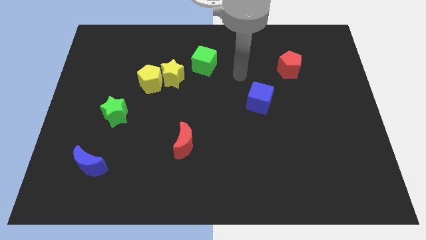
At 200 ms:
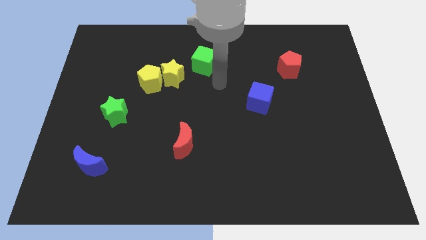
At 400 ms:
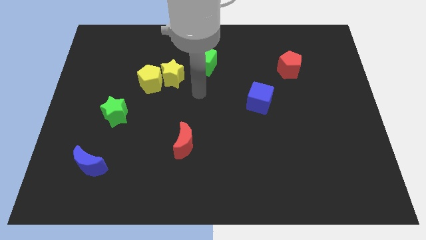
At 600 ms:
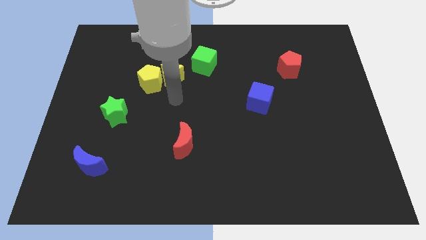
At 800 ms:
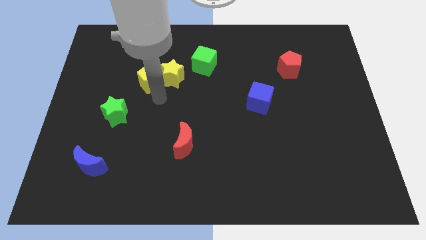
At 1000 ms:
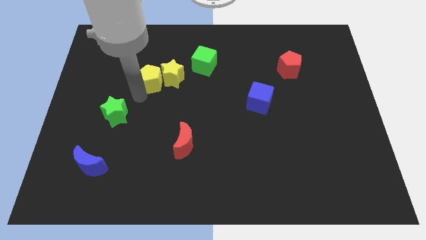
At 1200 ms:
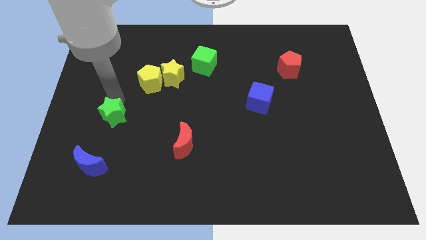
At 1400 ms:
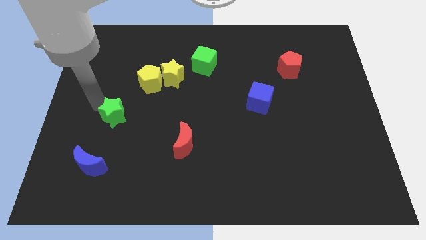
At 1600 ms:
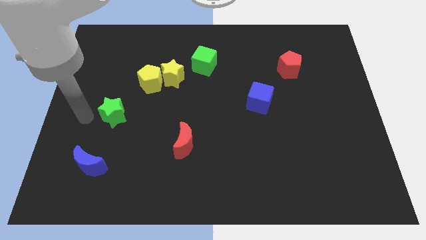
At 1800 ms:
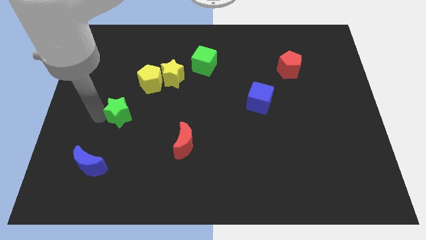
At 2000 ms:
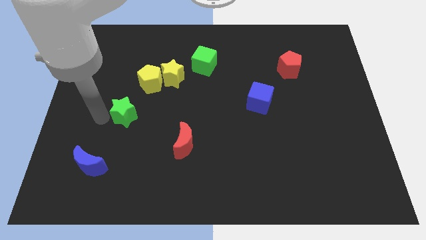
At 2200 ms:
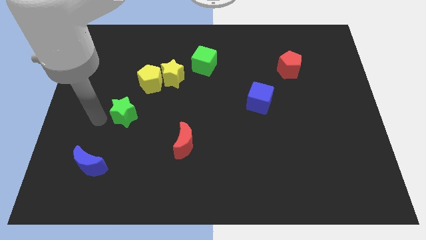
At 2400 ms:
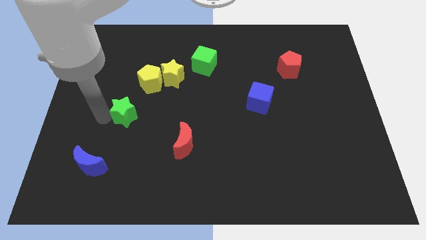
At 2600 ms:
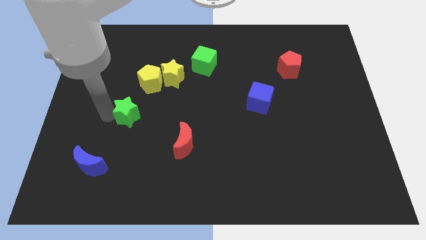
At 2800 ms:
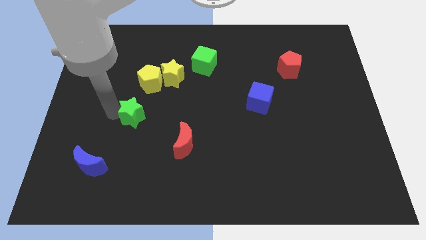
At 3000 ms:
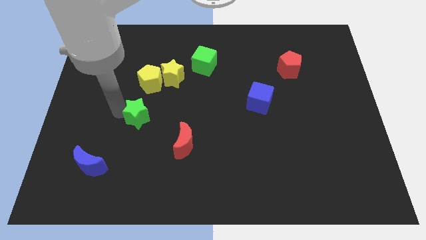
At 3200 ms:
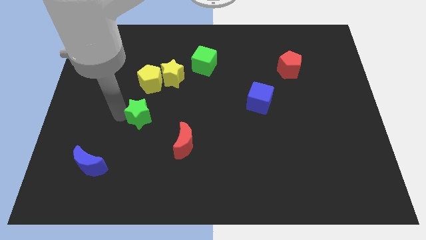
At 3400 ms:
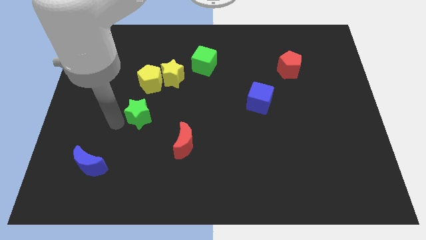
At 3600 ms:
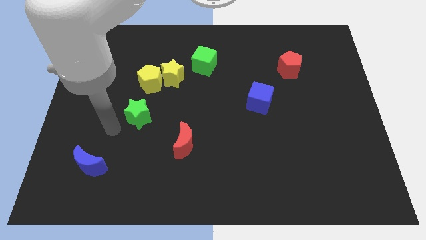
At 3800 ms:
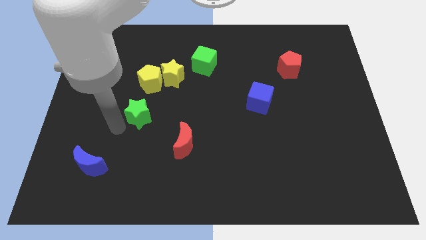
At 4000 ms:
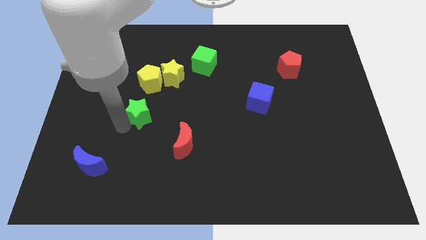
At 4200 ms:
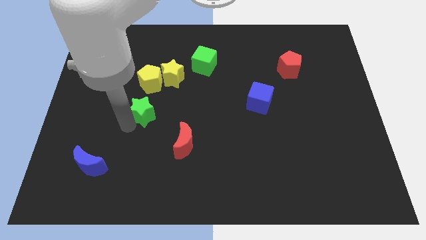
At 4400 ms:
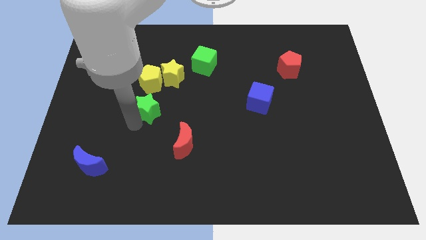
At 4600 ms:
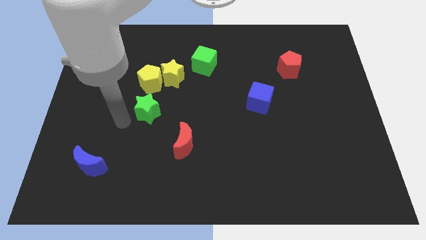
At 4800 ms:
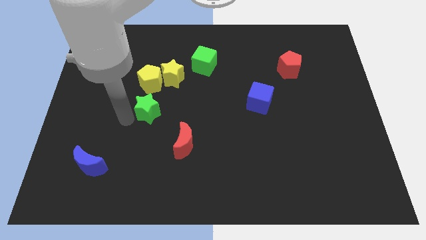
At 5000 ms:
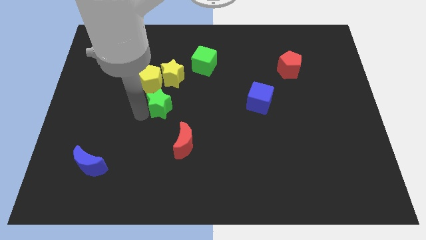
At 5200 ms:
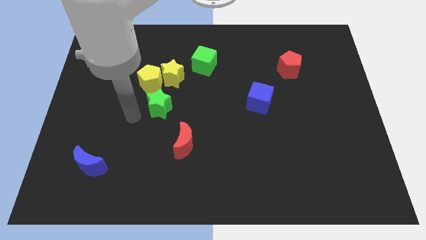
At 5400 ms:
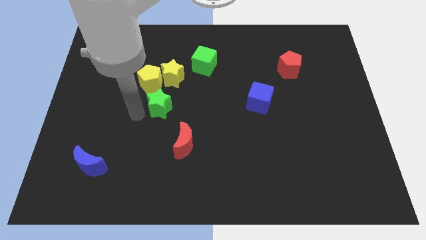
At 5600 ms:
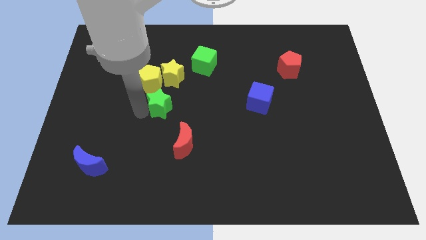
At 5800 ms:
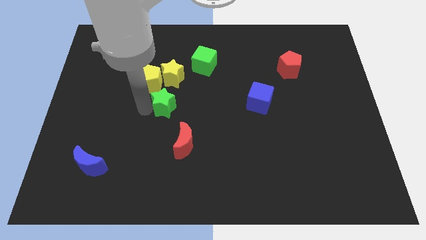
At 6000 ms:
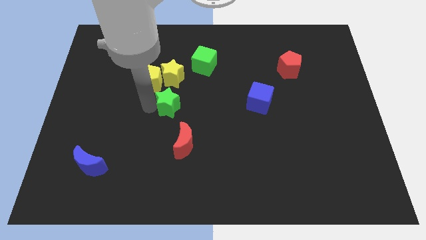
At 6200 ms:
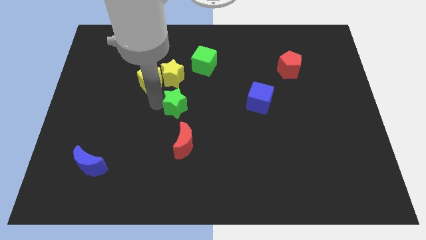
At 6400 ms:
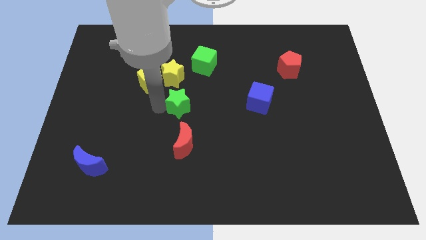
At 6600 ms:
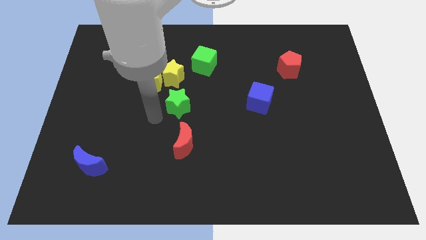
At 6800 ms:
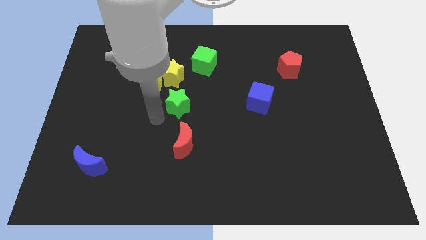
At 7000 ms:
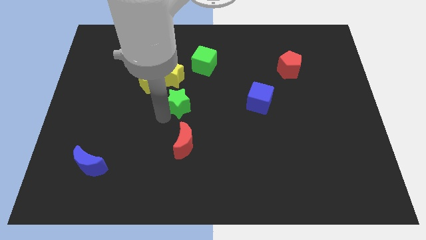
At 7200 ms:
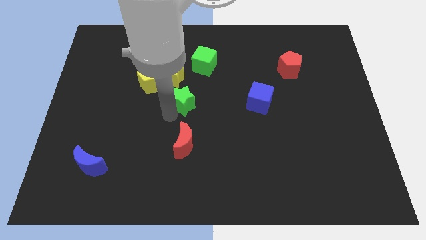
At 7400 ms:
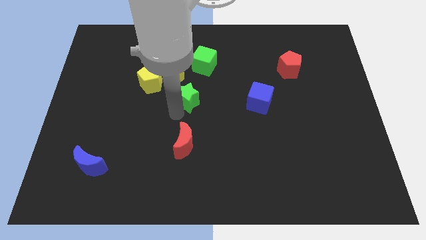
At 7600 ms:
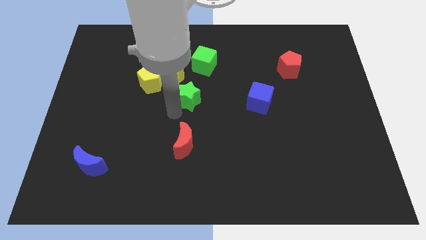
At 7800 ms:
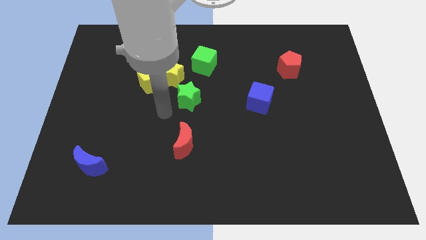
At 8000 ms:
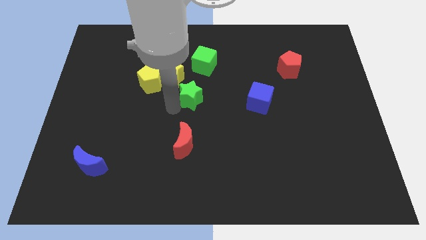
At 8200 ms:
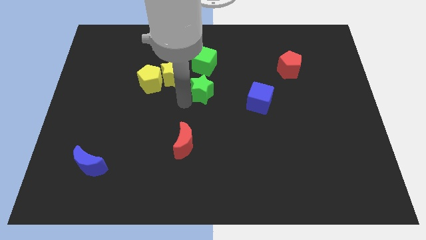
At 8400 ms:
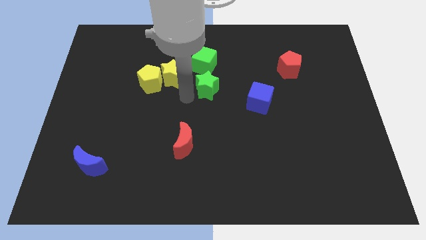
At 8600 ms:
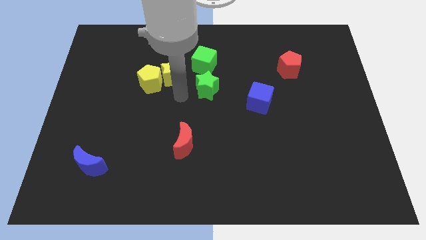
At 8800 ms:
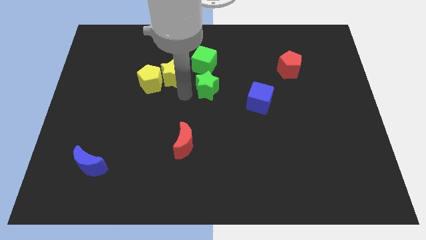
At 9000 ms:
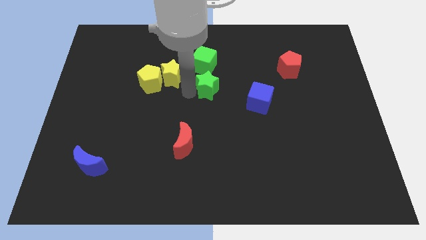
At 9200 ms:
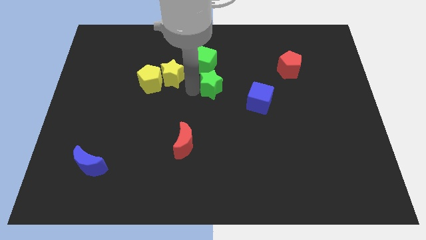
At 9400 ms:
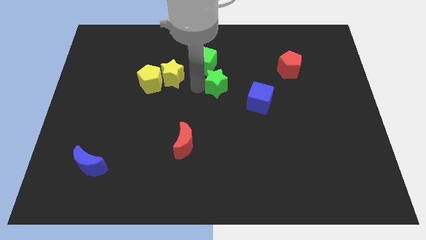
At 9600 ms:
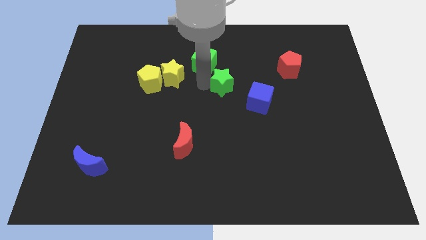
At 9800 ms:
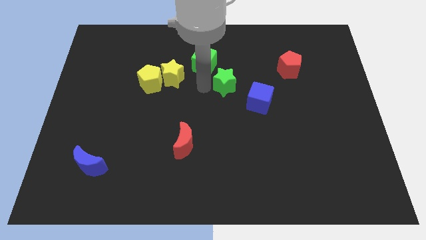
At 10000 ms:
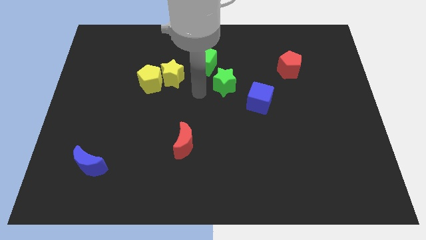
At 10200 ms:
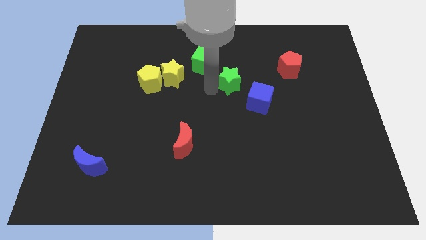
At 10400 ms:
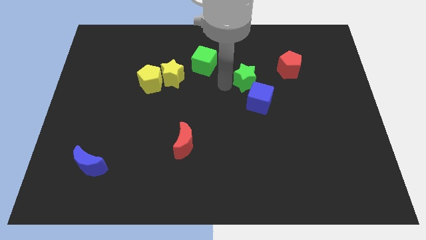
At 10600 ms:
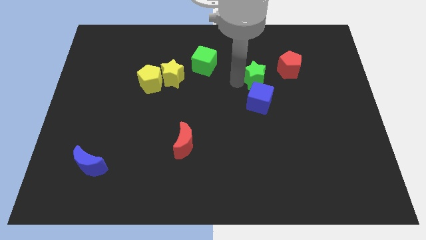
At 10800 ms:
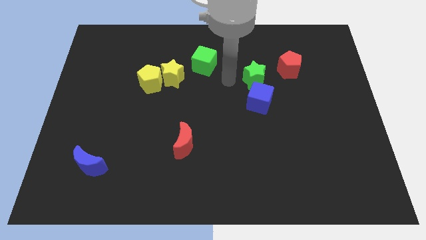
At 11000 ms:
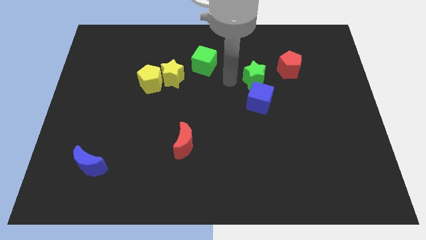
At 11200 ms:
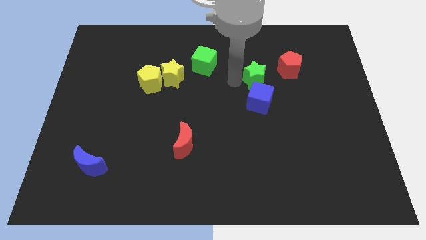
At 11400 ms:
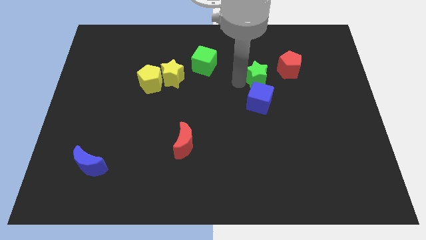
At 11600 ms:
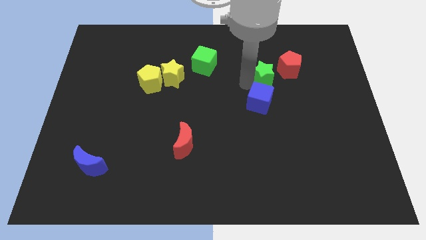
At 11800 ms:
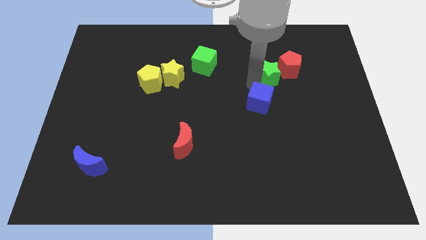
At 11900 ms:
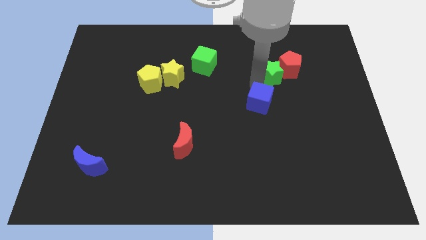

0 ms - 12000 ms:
put the green star close to the red pentagon

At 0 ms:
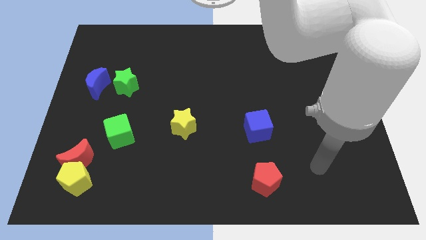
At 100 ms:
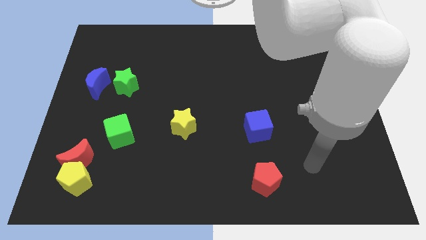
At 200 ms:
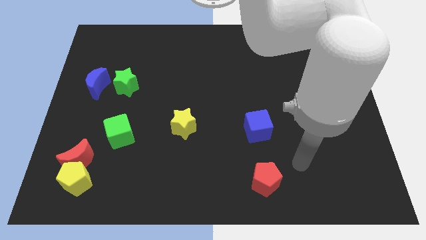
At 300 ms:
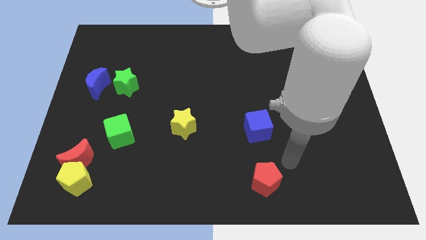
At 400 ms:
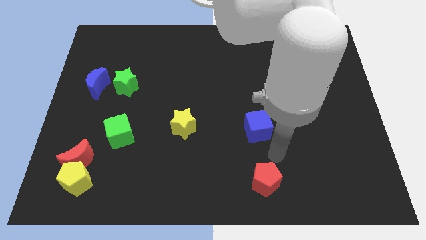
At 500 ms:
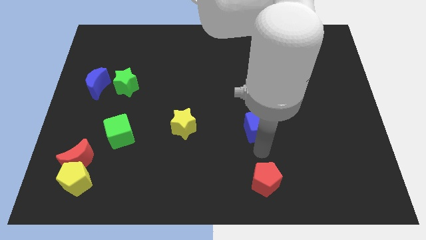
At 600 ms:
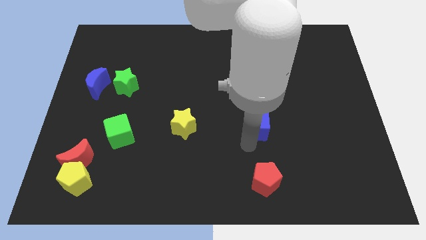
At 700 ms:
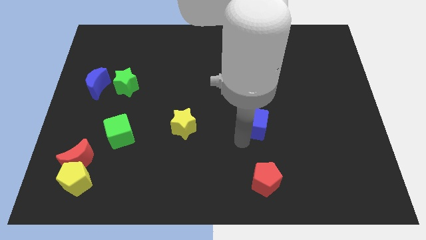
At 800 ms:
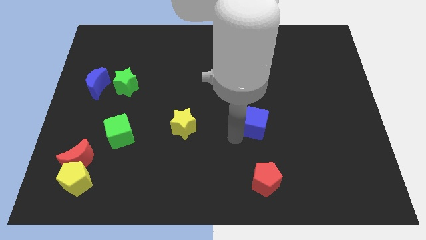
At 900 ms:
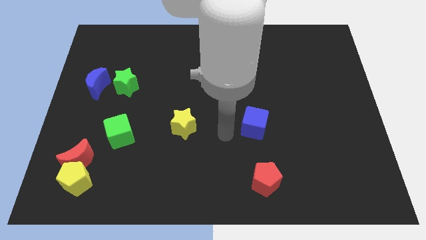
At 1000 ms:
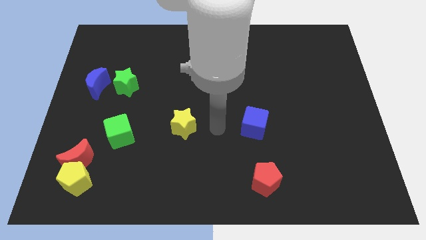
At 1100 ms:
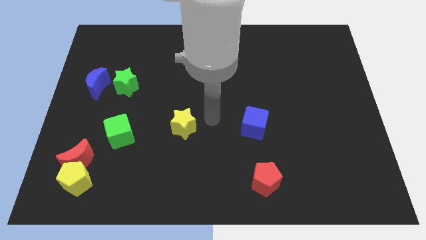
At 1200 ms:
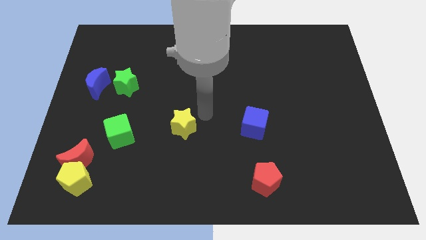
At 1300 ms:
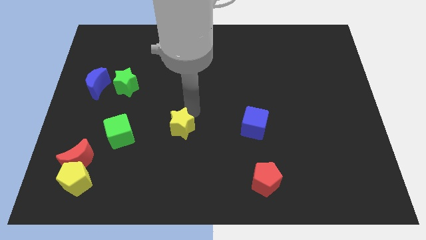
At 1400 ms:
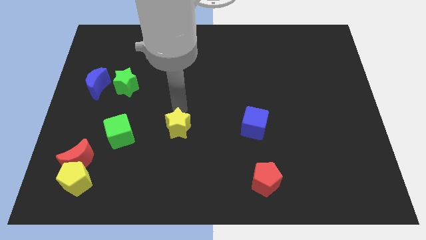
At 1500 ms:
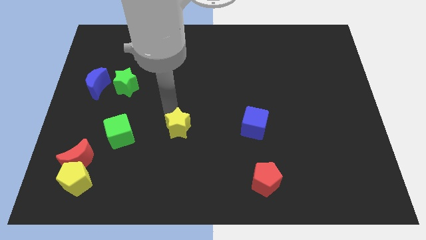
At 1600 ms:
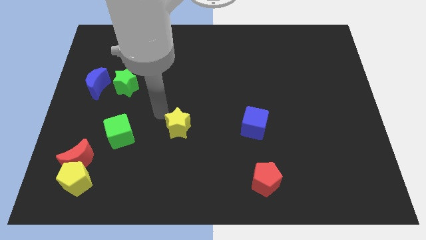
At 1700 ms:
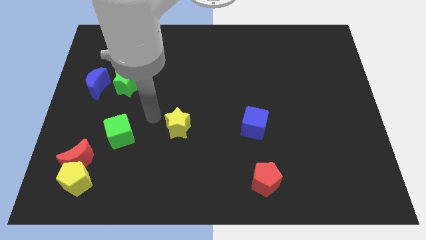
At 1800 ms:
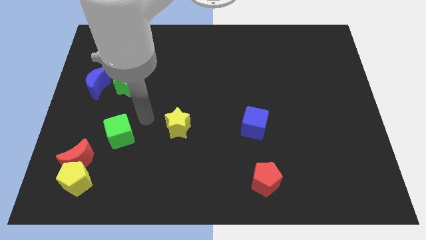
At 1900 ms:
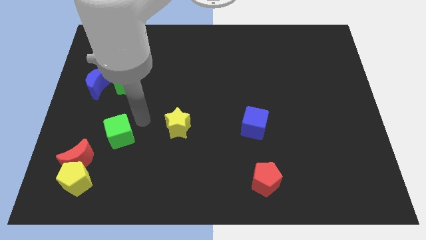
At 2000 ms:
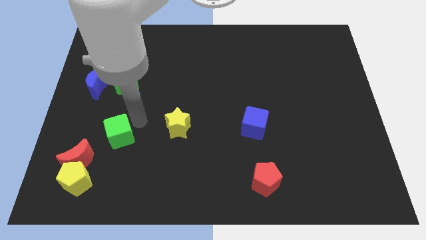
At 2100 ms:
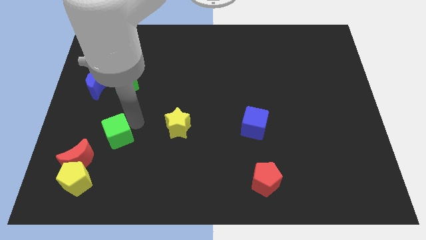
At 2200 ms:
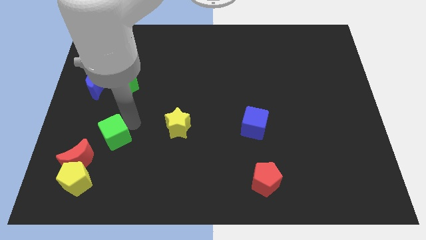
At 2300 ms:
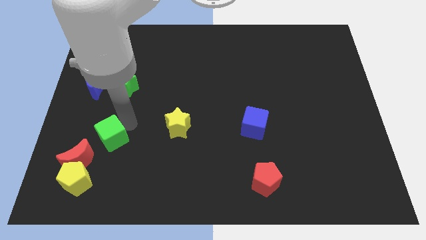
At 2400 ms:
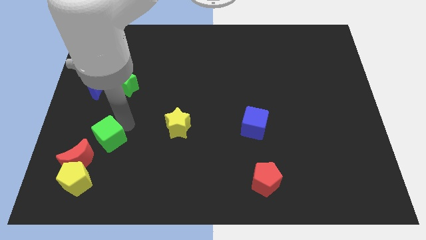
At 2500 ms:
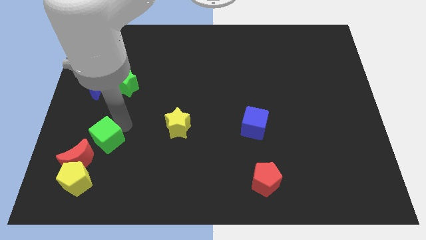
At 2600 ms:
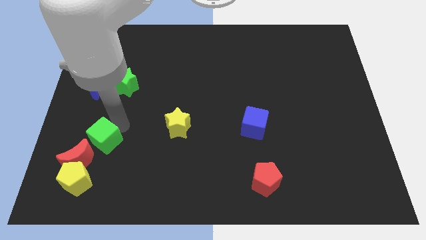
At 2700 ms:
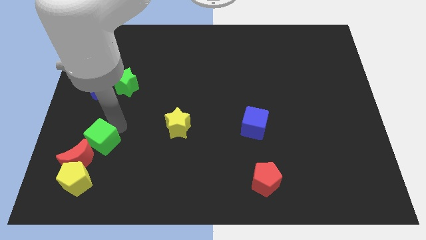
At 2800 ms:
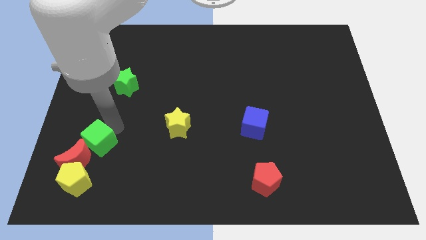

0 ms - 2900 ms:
put the green cube close to the red moon
